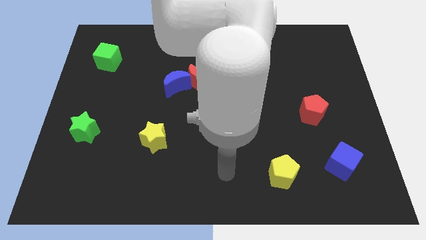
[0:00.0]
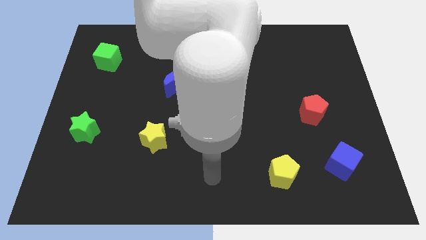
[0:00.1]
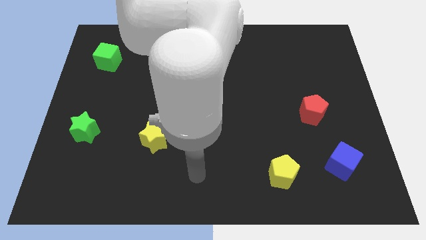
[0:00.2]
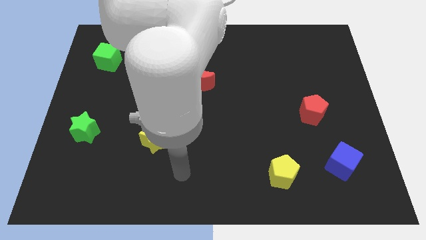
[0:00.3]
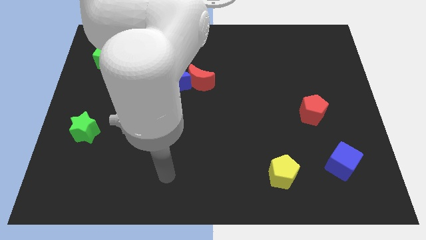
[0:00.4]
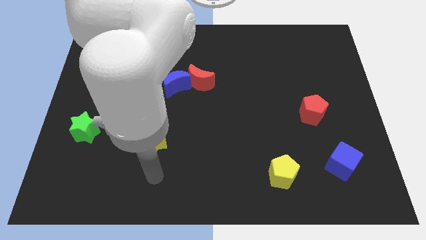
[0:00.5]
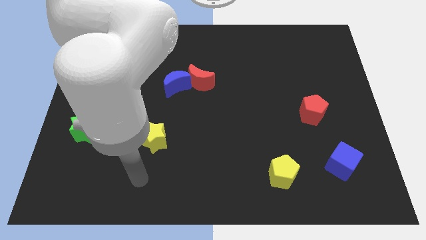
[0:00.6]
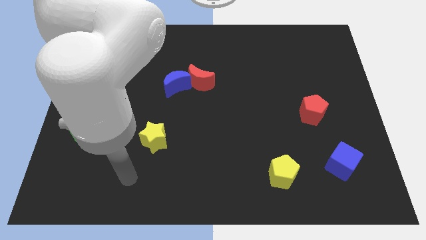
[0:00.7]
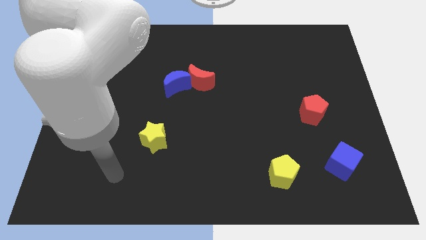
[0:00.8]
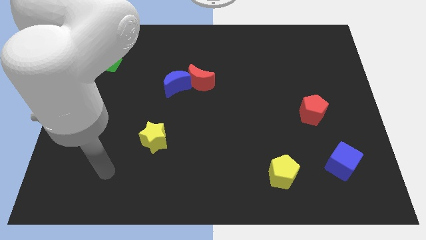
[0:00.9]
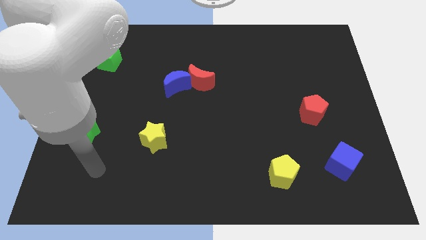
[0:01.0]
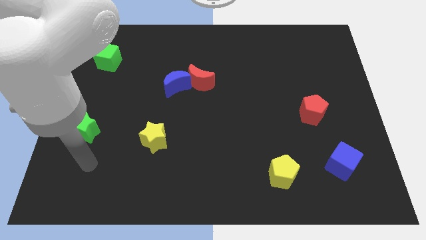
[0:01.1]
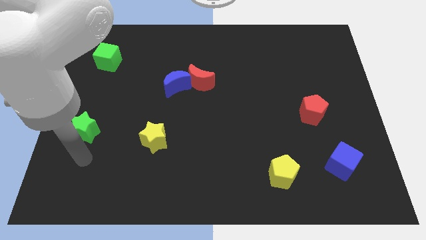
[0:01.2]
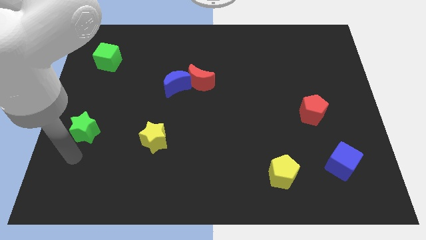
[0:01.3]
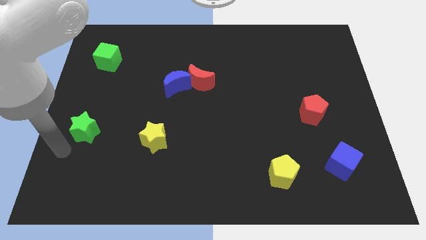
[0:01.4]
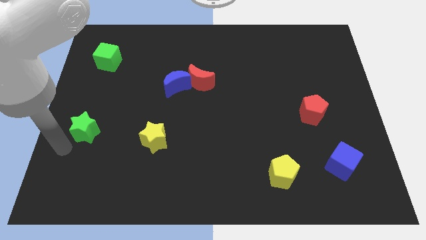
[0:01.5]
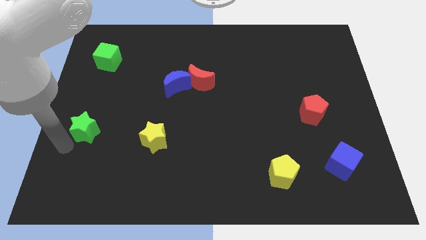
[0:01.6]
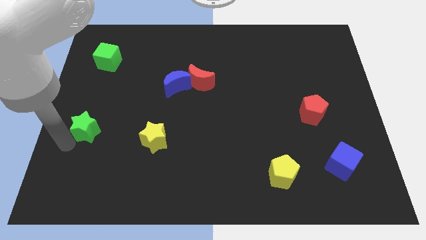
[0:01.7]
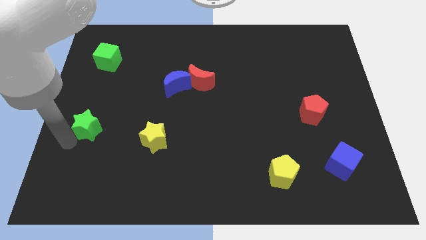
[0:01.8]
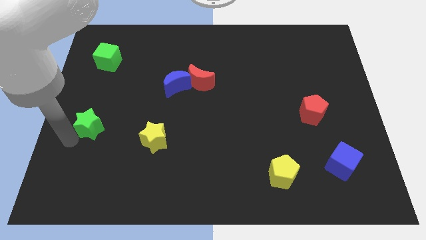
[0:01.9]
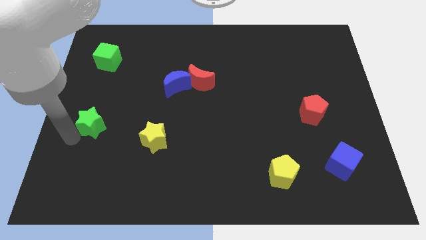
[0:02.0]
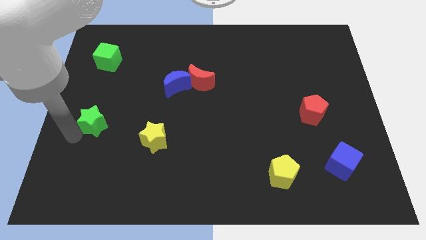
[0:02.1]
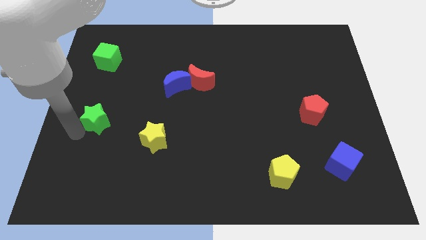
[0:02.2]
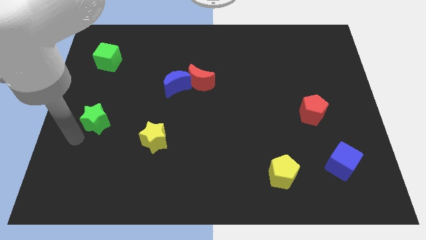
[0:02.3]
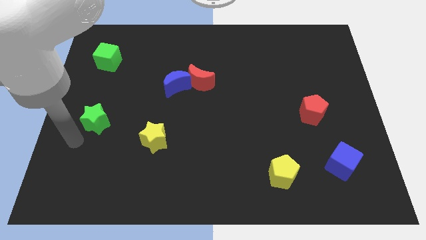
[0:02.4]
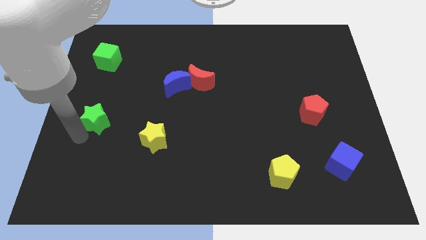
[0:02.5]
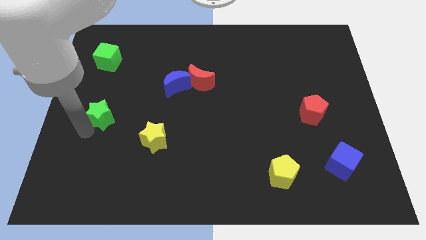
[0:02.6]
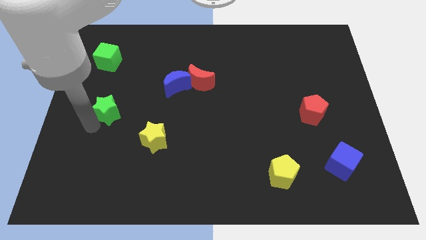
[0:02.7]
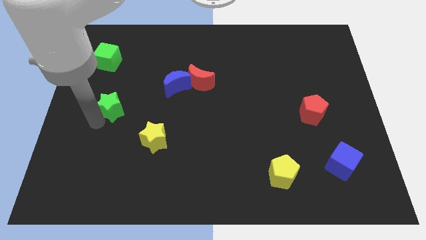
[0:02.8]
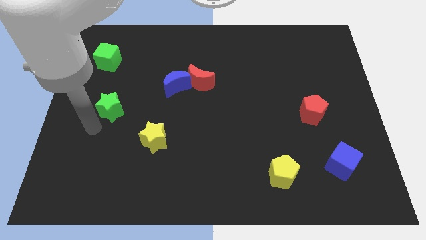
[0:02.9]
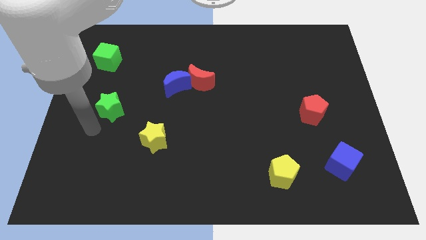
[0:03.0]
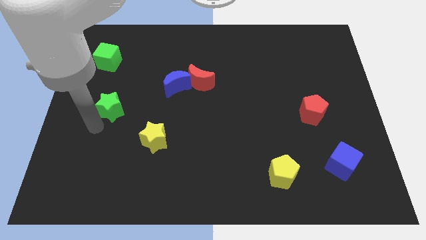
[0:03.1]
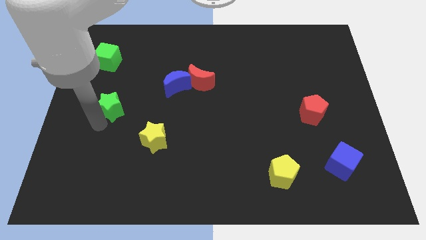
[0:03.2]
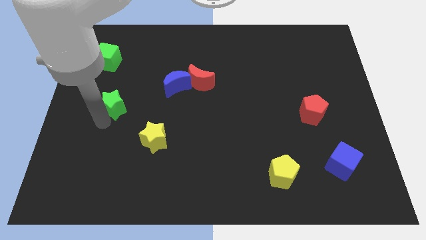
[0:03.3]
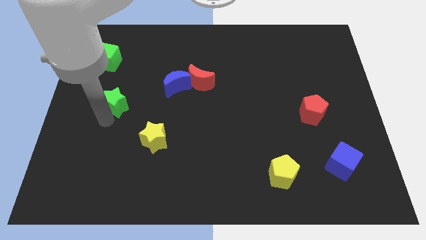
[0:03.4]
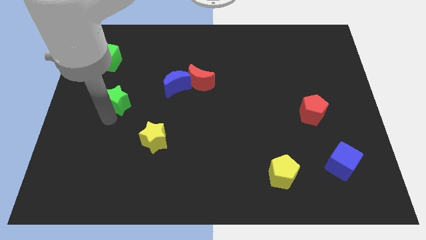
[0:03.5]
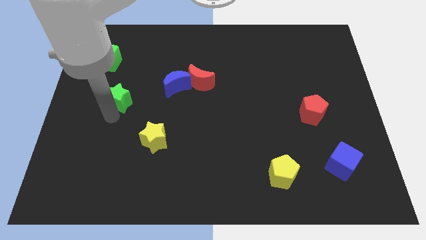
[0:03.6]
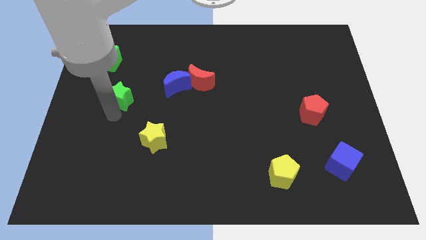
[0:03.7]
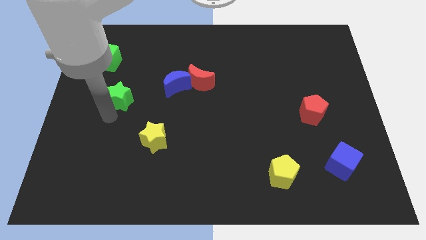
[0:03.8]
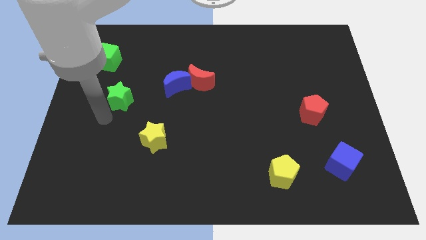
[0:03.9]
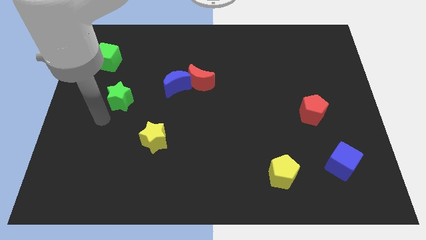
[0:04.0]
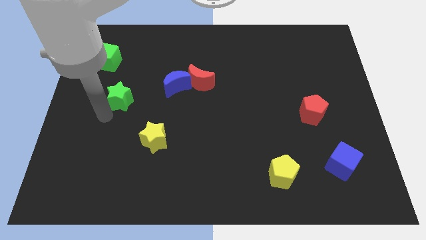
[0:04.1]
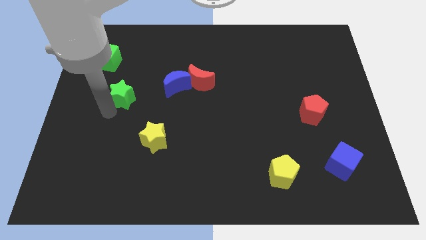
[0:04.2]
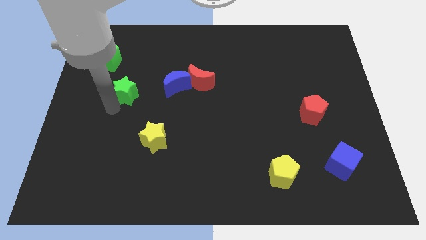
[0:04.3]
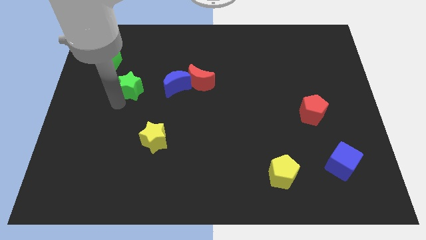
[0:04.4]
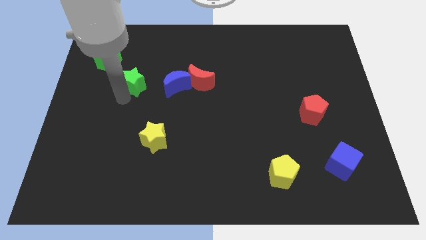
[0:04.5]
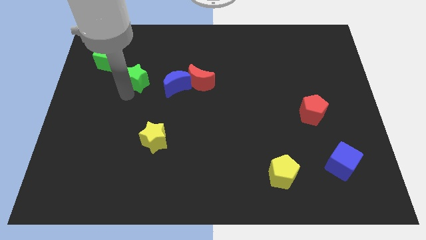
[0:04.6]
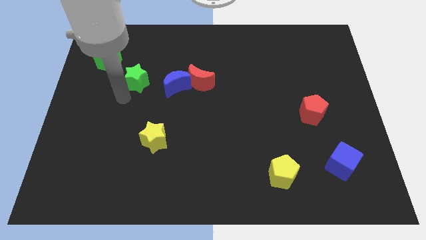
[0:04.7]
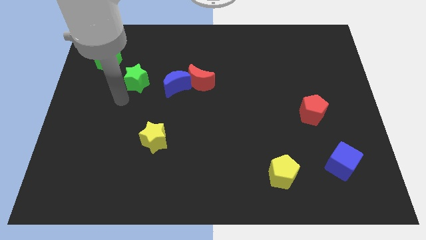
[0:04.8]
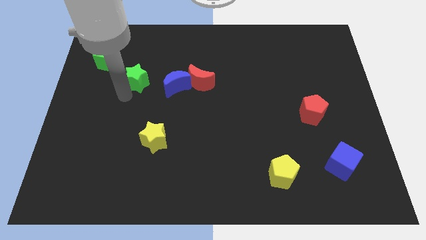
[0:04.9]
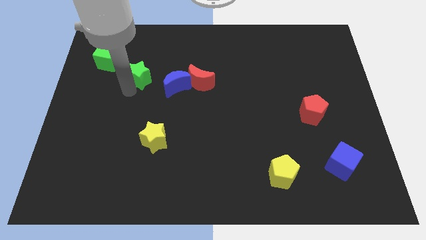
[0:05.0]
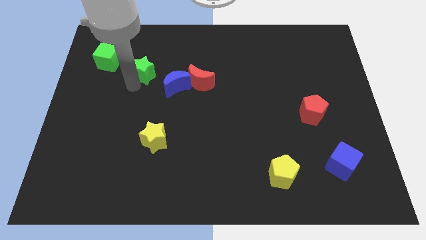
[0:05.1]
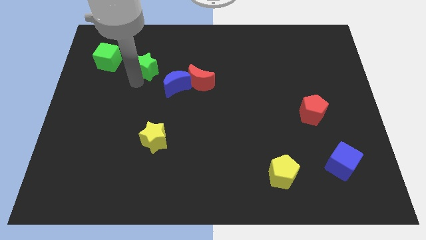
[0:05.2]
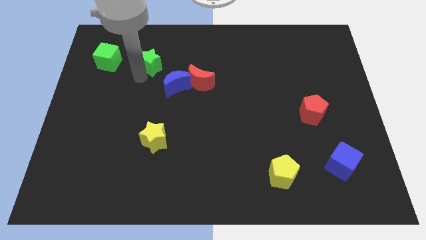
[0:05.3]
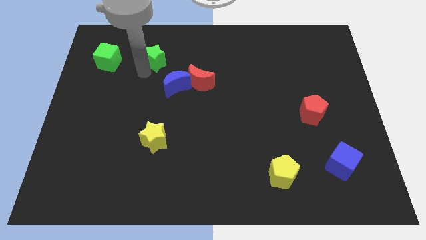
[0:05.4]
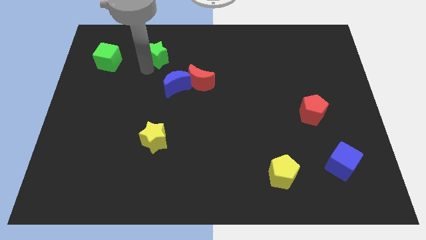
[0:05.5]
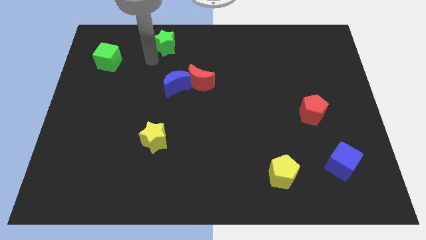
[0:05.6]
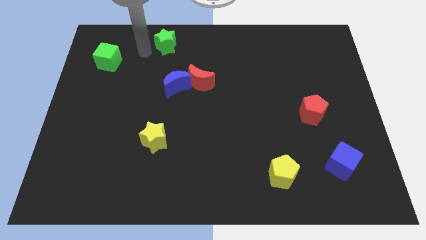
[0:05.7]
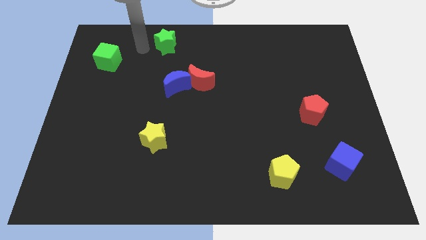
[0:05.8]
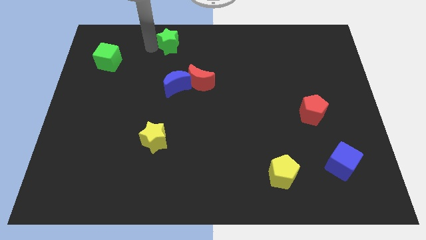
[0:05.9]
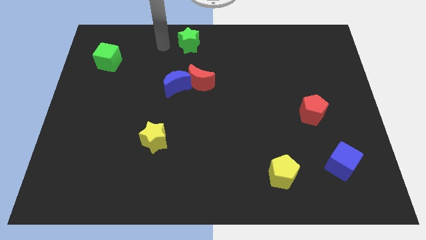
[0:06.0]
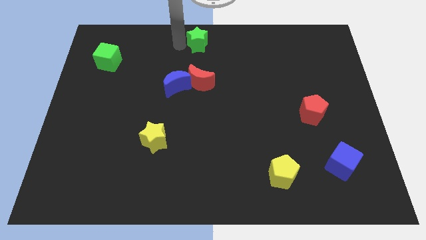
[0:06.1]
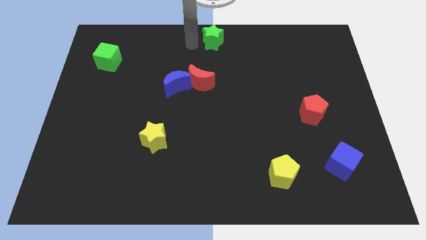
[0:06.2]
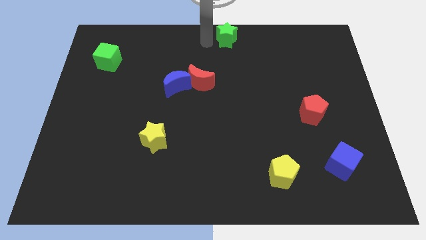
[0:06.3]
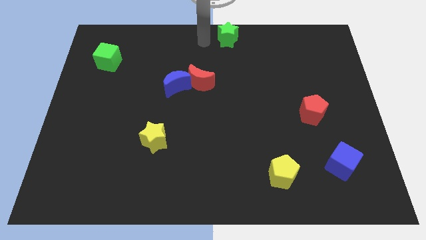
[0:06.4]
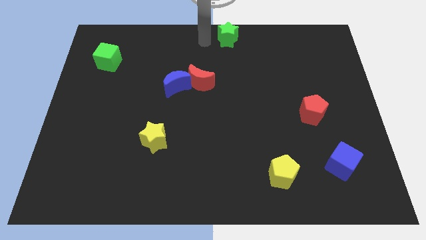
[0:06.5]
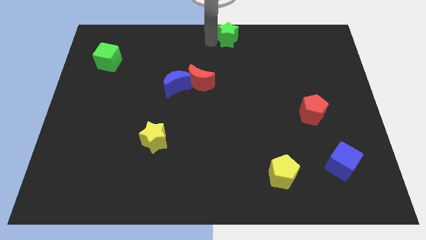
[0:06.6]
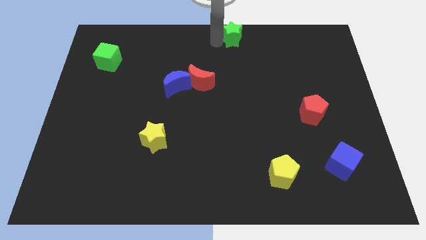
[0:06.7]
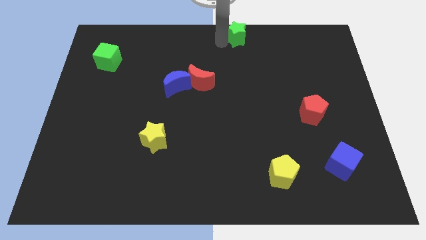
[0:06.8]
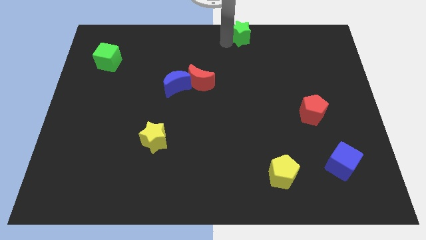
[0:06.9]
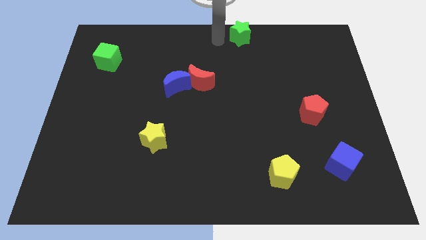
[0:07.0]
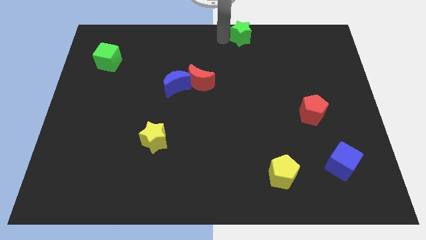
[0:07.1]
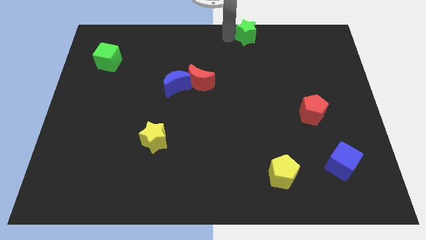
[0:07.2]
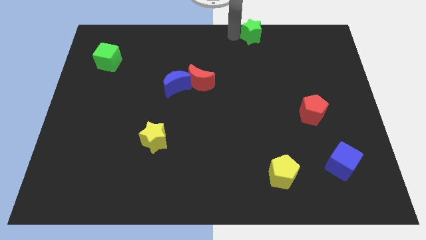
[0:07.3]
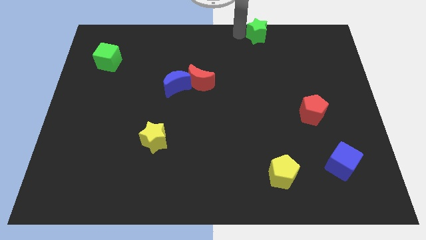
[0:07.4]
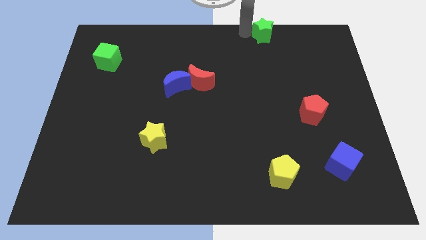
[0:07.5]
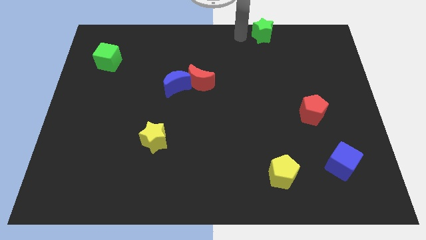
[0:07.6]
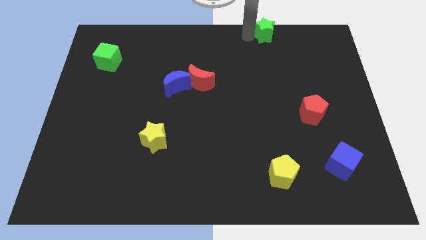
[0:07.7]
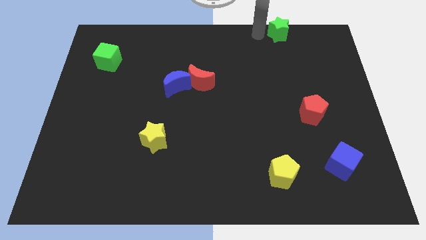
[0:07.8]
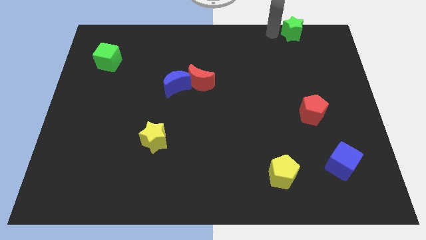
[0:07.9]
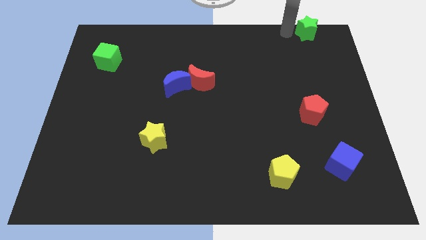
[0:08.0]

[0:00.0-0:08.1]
slide the green star to the top right corner
